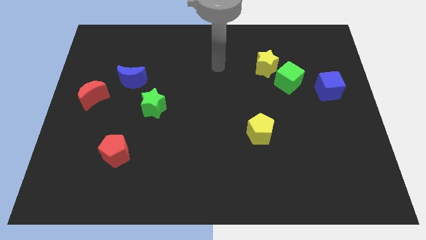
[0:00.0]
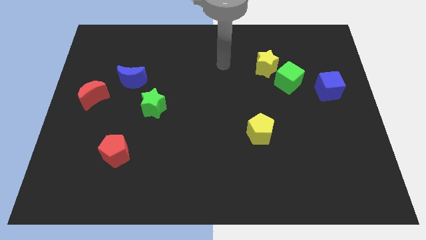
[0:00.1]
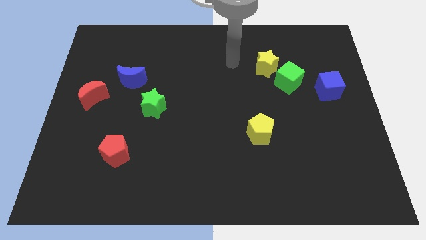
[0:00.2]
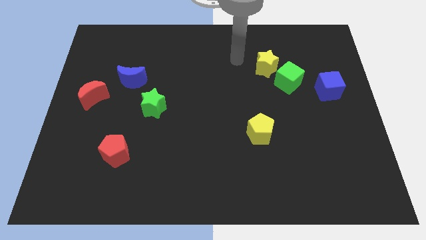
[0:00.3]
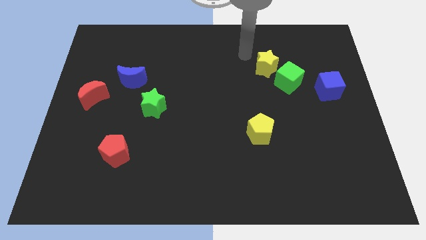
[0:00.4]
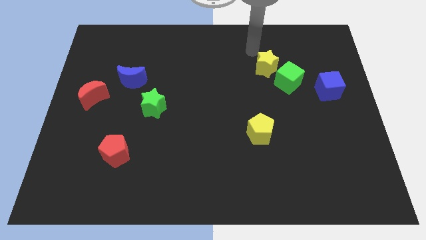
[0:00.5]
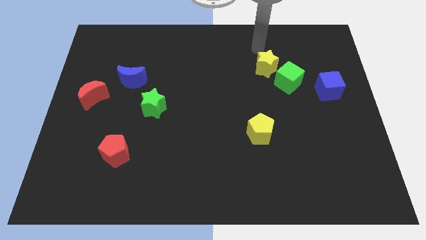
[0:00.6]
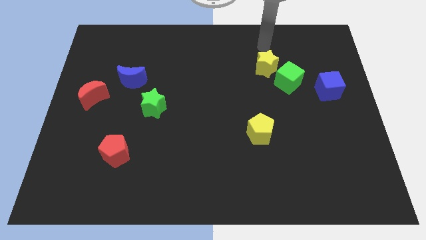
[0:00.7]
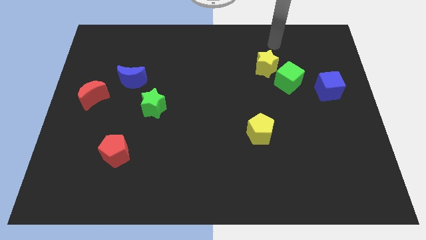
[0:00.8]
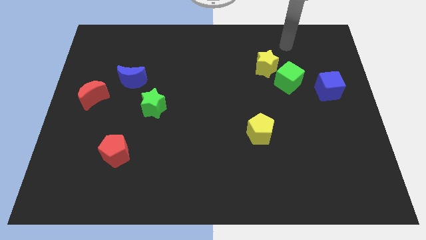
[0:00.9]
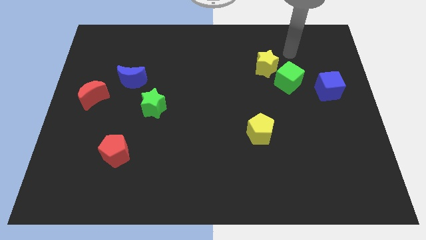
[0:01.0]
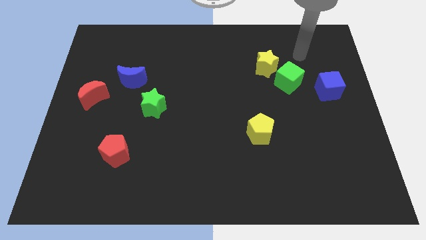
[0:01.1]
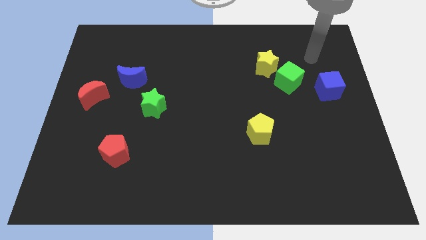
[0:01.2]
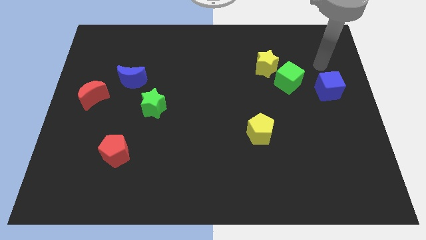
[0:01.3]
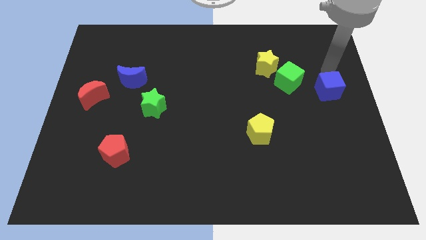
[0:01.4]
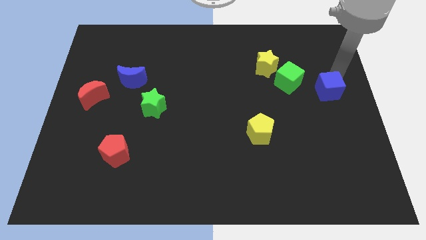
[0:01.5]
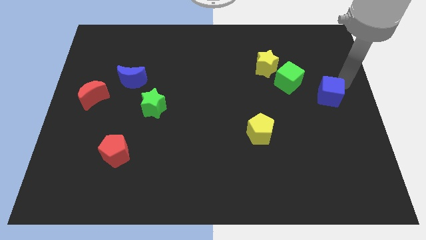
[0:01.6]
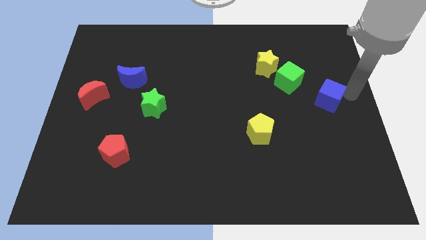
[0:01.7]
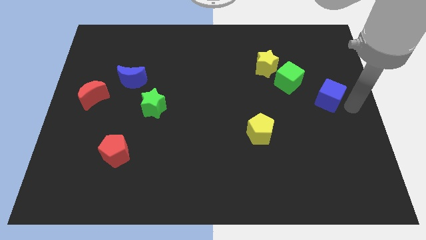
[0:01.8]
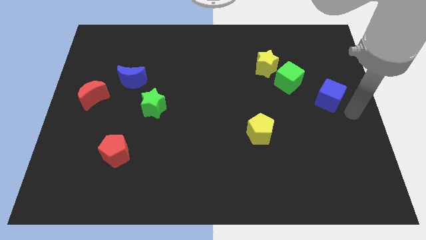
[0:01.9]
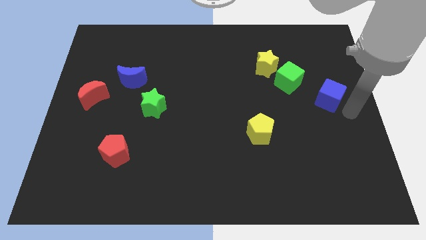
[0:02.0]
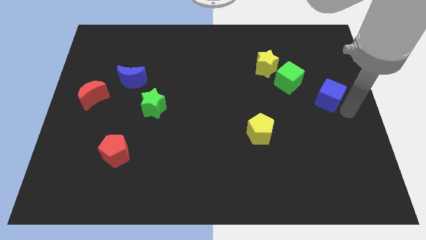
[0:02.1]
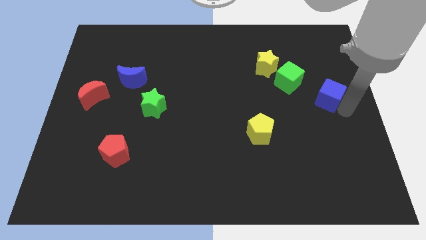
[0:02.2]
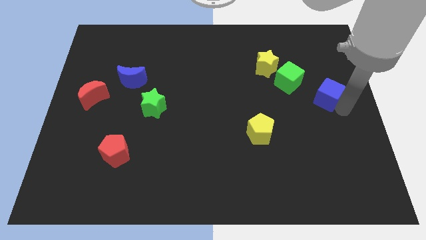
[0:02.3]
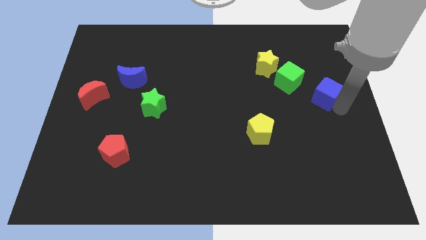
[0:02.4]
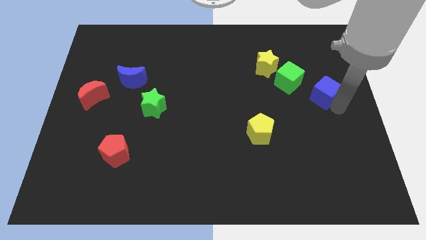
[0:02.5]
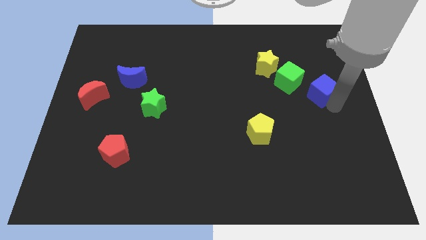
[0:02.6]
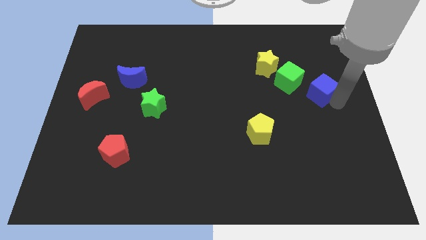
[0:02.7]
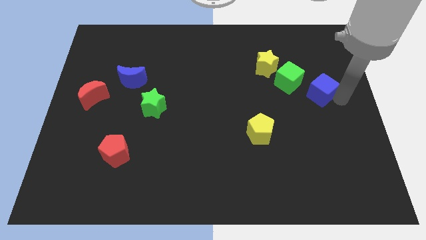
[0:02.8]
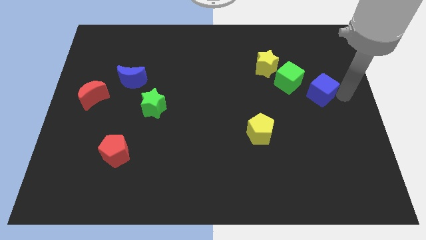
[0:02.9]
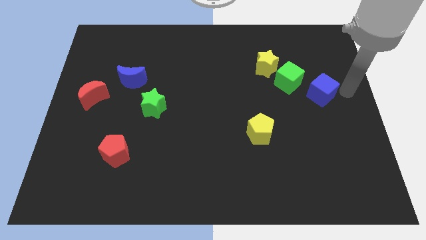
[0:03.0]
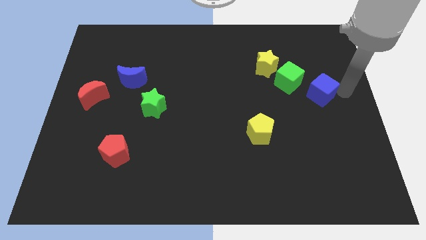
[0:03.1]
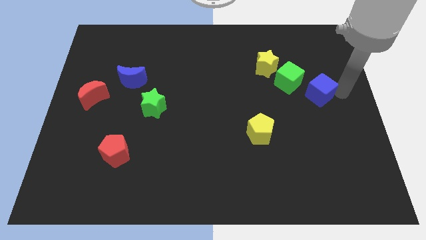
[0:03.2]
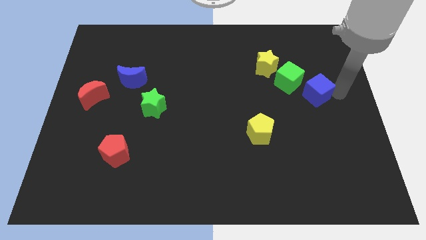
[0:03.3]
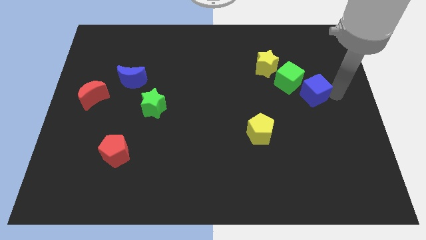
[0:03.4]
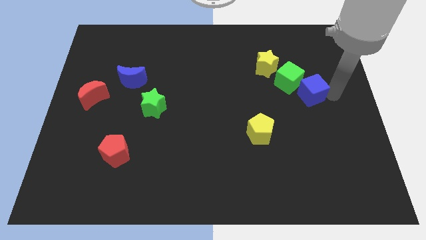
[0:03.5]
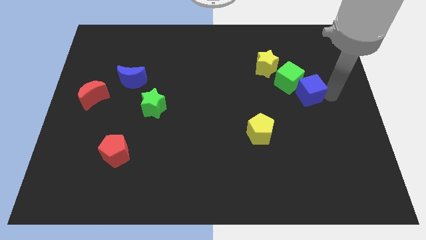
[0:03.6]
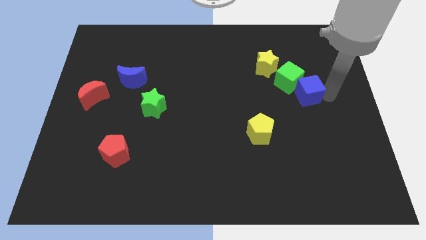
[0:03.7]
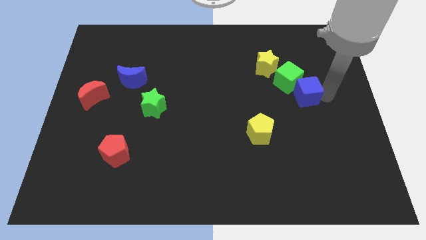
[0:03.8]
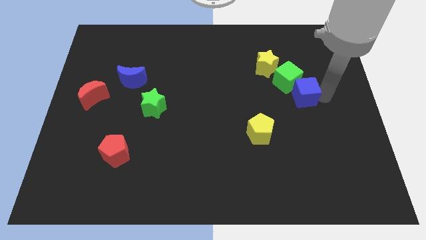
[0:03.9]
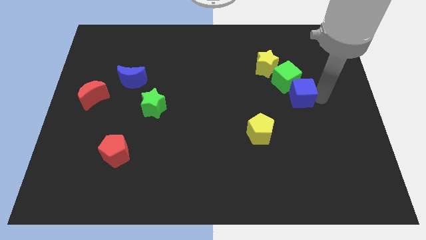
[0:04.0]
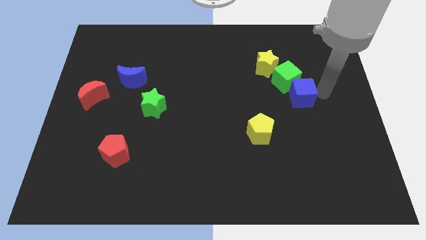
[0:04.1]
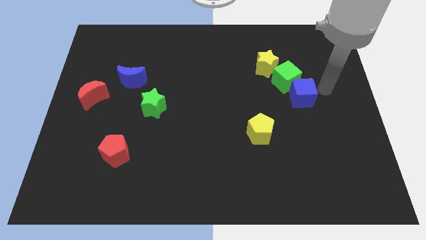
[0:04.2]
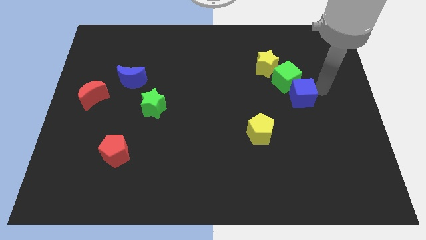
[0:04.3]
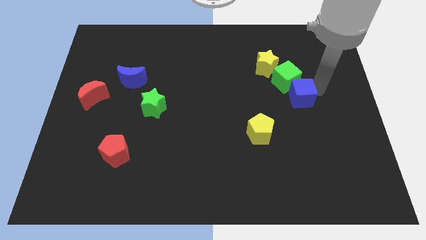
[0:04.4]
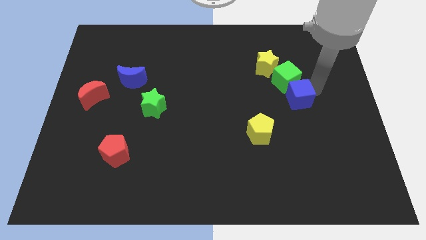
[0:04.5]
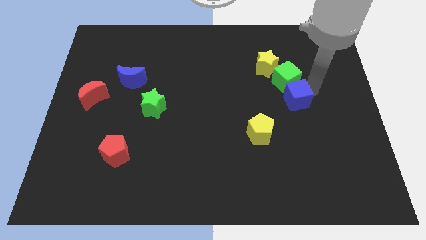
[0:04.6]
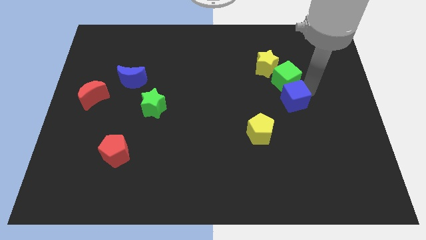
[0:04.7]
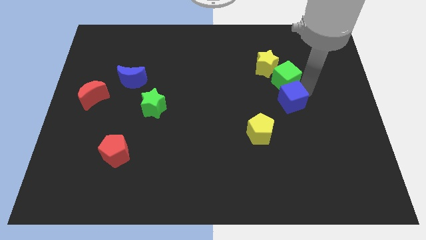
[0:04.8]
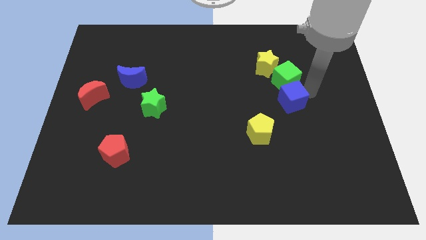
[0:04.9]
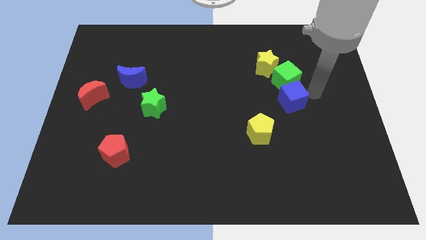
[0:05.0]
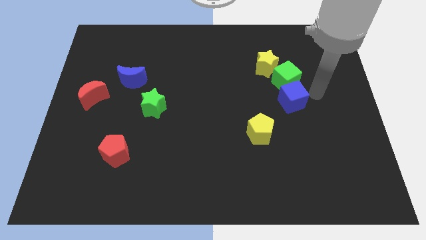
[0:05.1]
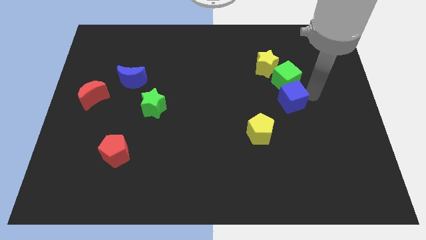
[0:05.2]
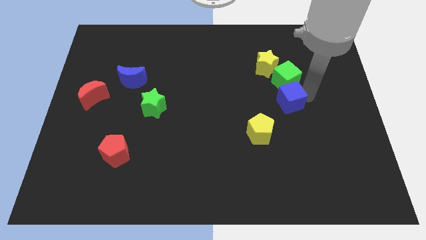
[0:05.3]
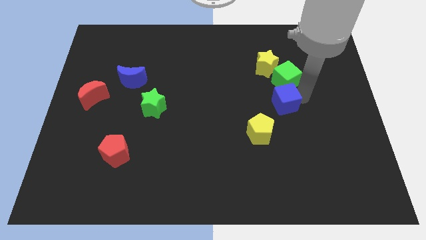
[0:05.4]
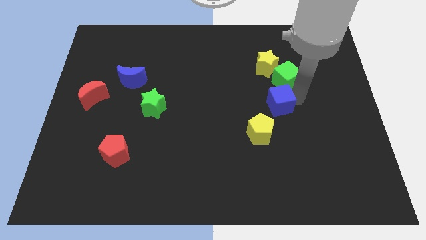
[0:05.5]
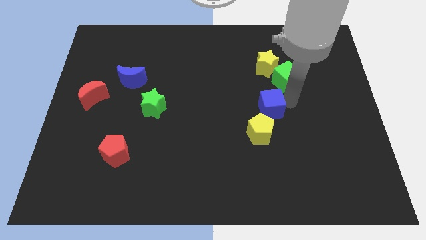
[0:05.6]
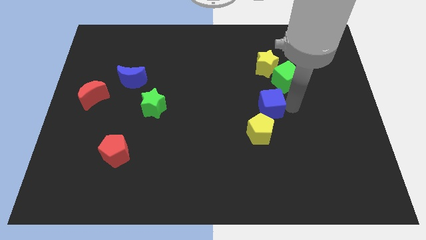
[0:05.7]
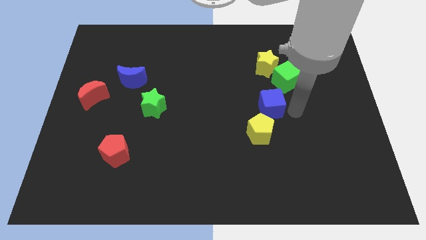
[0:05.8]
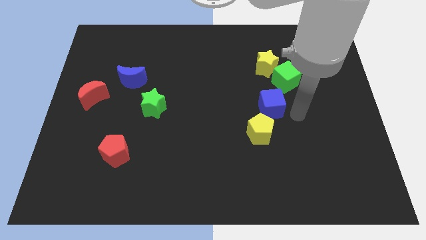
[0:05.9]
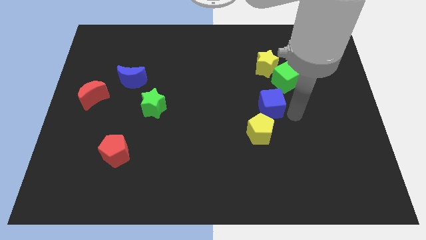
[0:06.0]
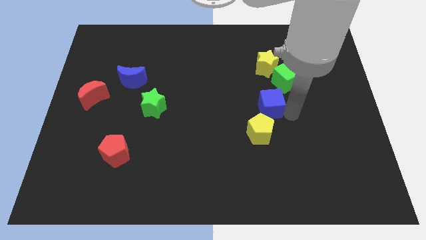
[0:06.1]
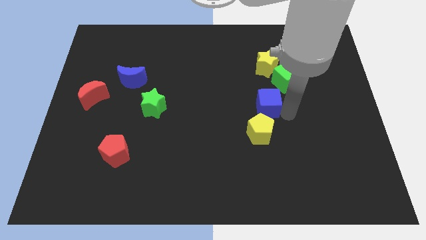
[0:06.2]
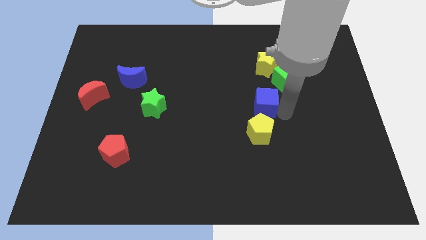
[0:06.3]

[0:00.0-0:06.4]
move the blue cube to the center
